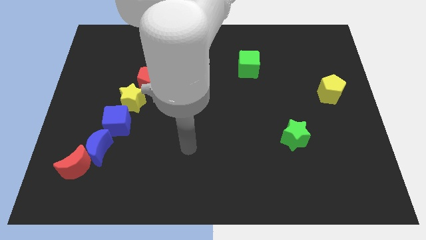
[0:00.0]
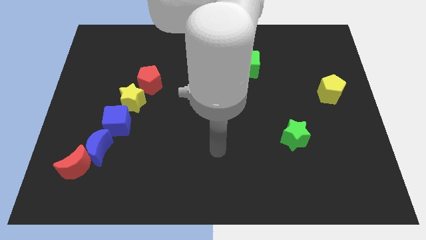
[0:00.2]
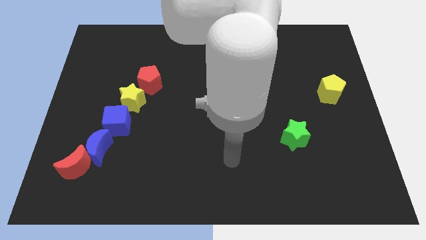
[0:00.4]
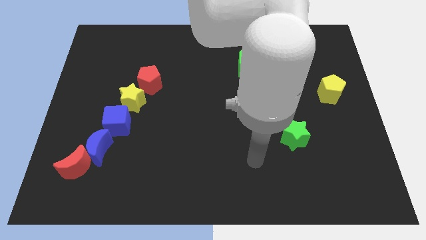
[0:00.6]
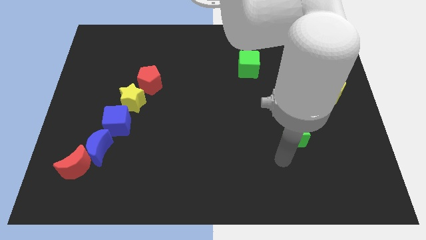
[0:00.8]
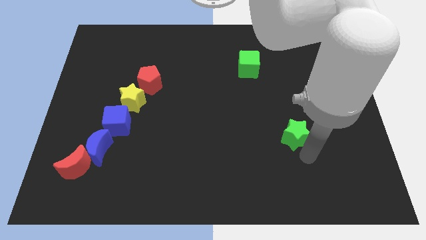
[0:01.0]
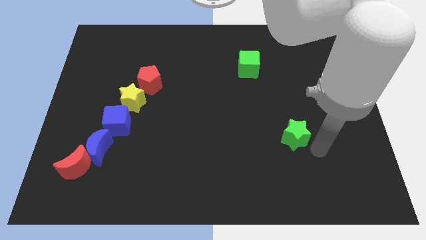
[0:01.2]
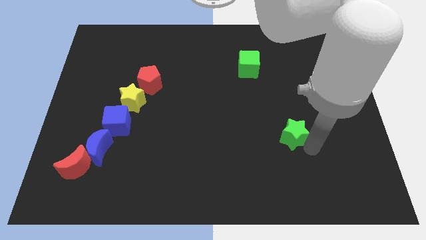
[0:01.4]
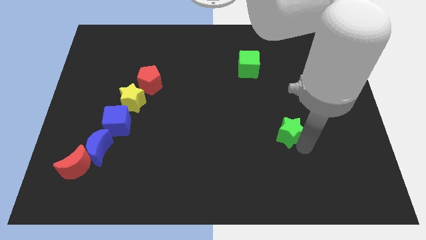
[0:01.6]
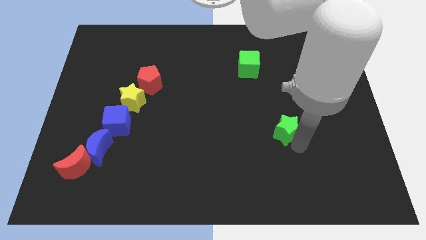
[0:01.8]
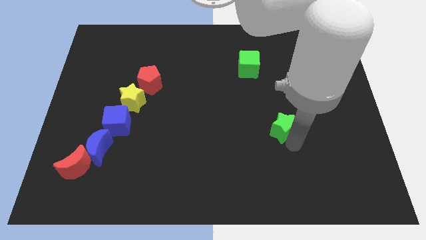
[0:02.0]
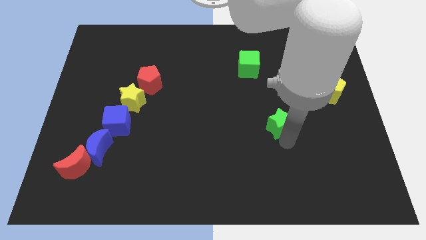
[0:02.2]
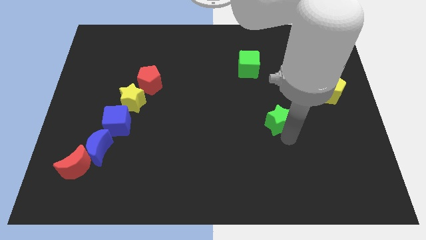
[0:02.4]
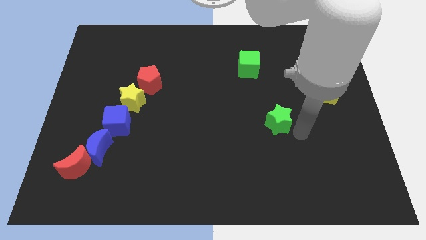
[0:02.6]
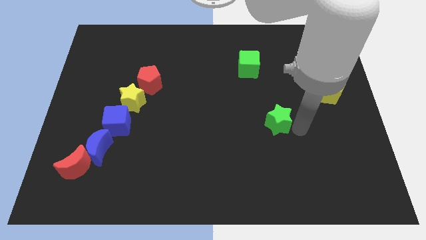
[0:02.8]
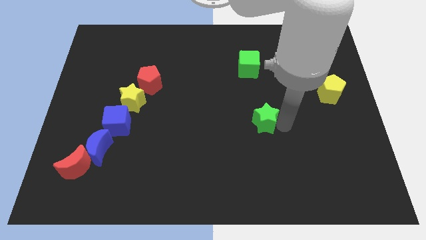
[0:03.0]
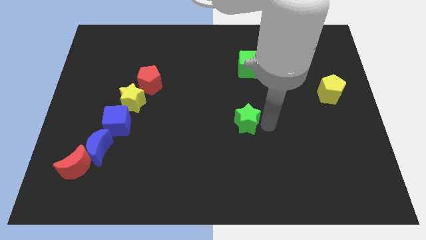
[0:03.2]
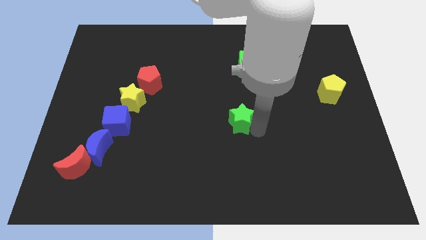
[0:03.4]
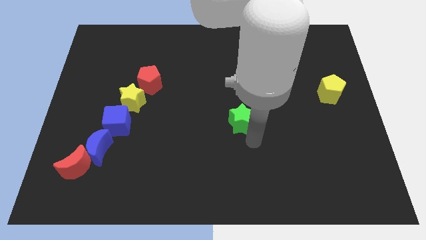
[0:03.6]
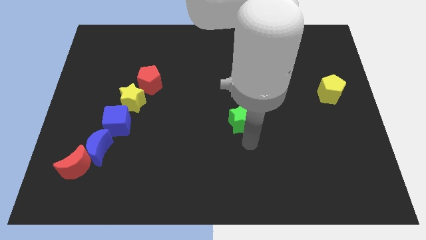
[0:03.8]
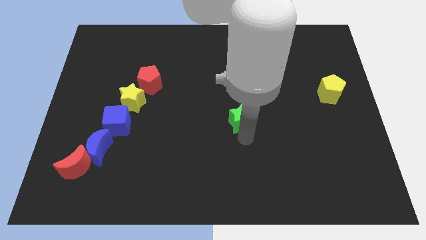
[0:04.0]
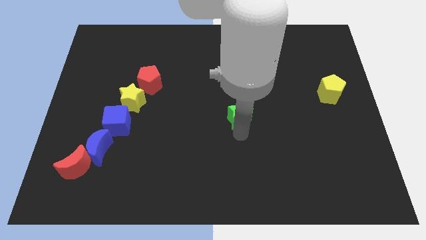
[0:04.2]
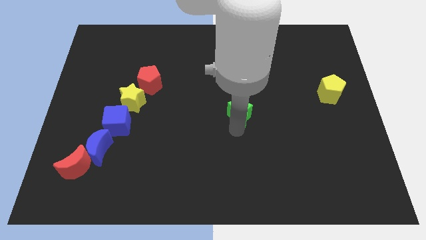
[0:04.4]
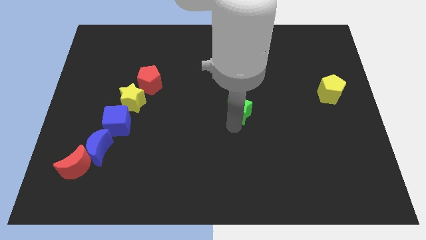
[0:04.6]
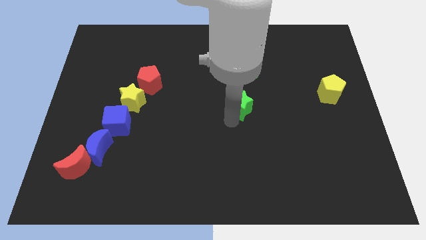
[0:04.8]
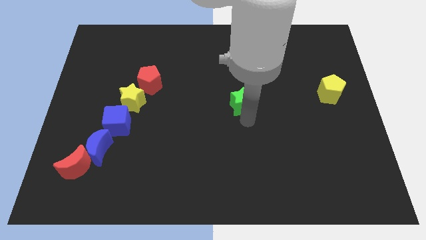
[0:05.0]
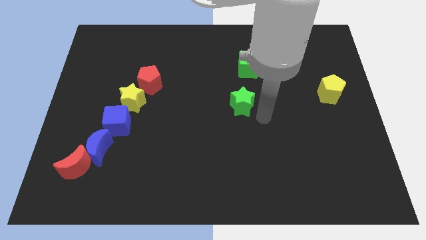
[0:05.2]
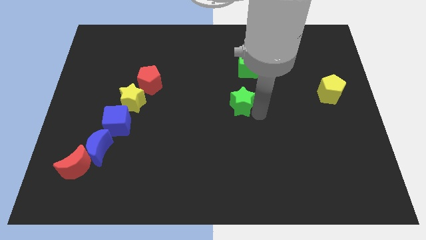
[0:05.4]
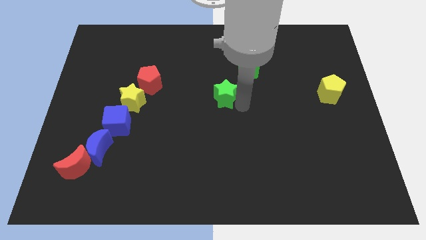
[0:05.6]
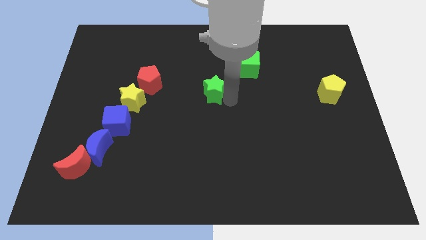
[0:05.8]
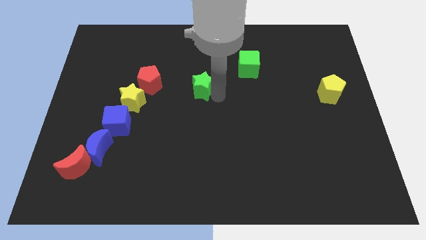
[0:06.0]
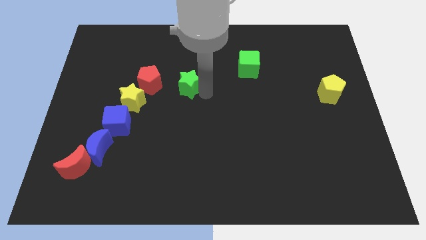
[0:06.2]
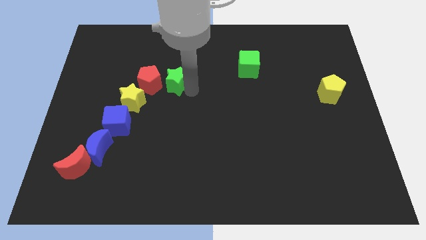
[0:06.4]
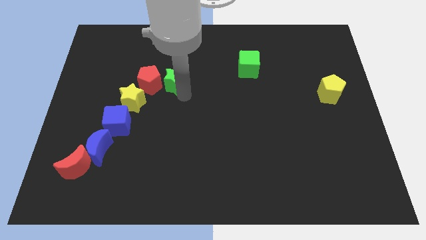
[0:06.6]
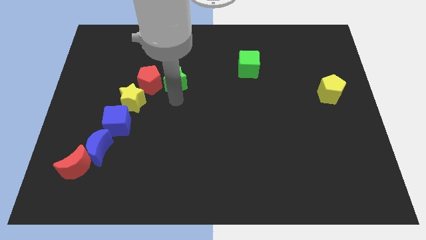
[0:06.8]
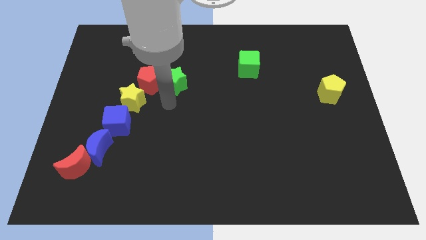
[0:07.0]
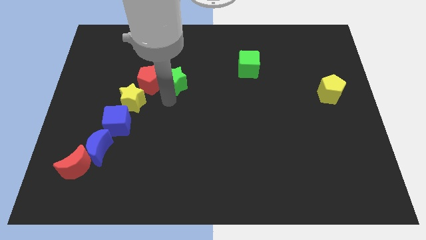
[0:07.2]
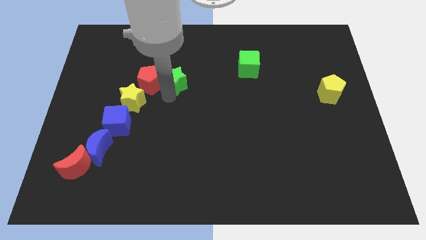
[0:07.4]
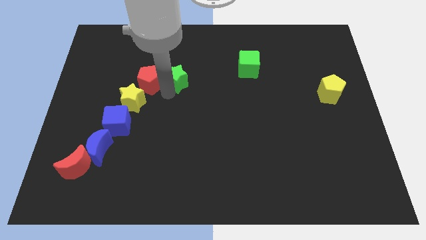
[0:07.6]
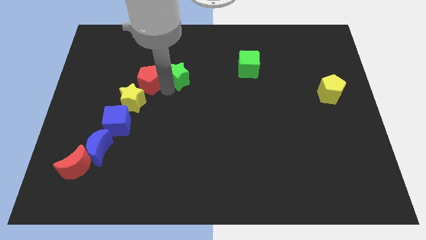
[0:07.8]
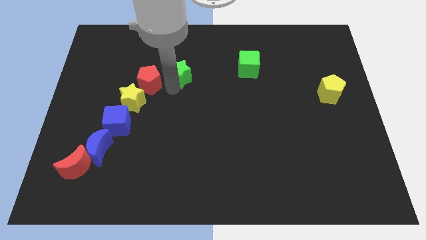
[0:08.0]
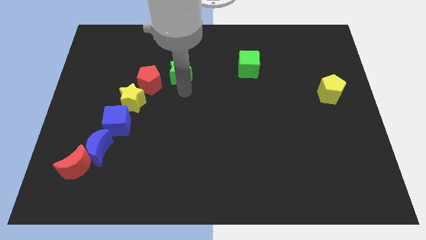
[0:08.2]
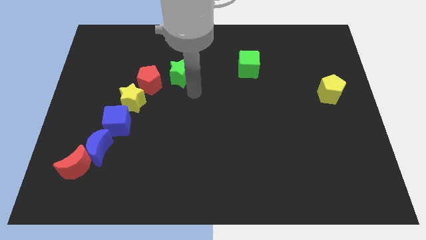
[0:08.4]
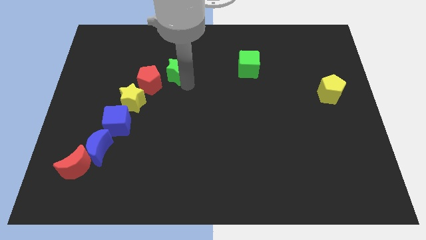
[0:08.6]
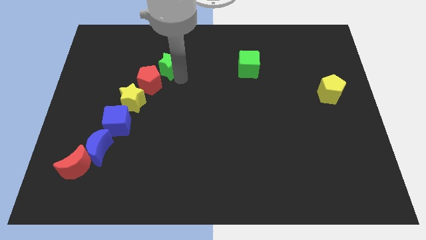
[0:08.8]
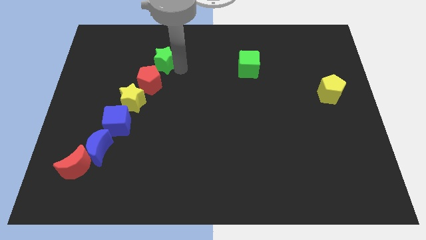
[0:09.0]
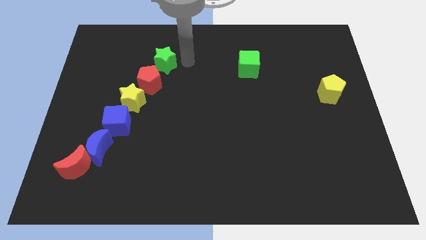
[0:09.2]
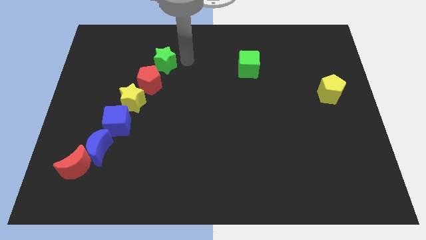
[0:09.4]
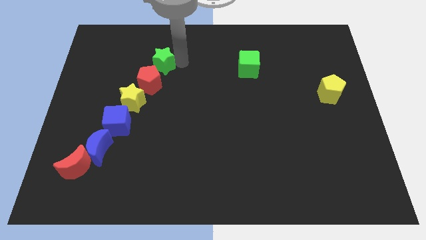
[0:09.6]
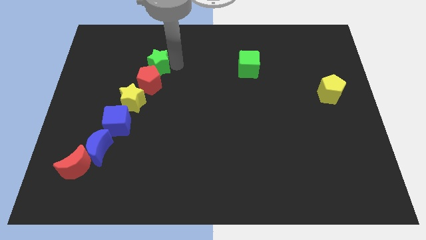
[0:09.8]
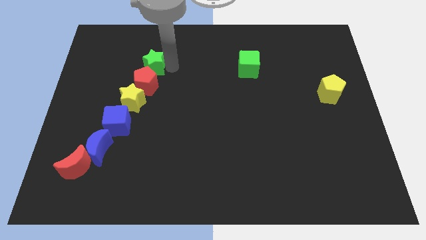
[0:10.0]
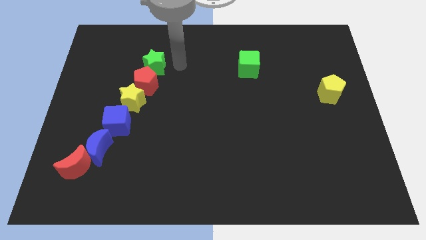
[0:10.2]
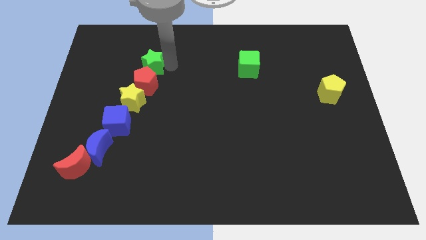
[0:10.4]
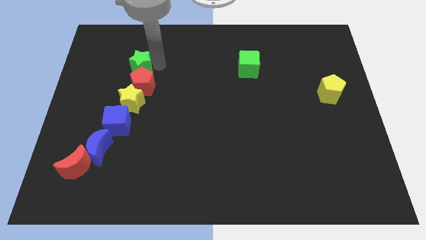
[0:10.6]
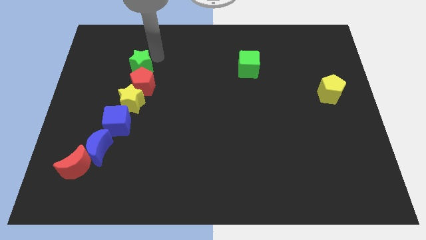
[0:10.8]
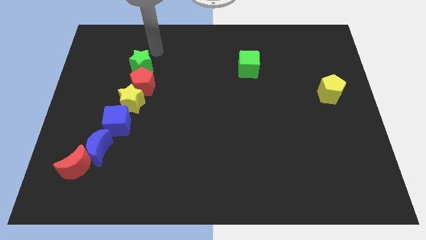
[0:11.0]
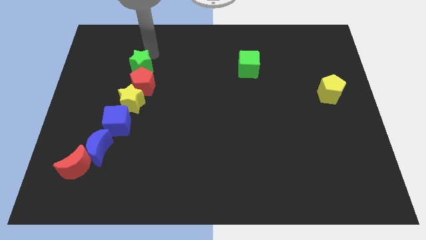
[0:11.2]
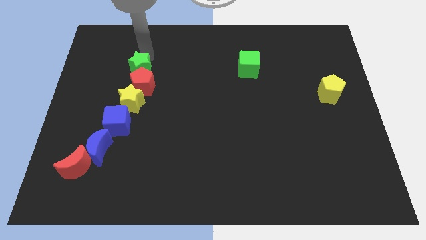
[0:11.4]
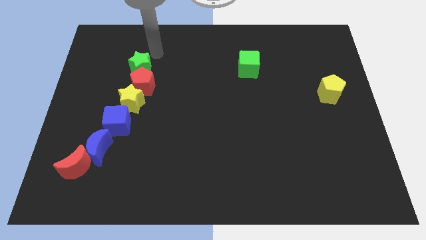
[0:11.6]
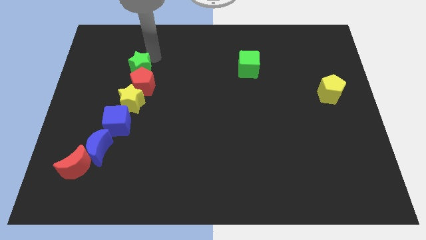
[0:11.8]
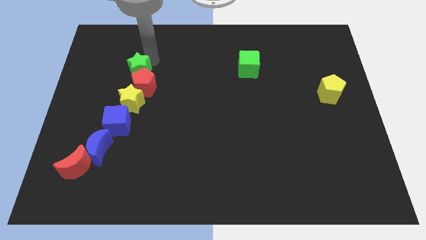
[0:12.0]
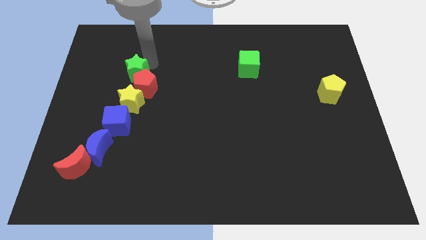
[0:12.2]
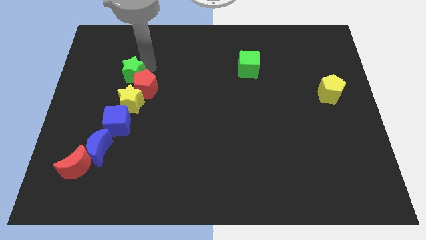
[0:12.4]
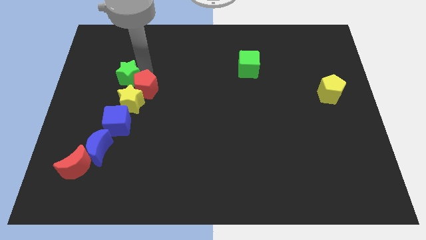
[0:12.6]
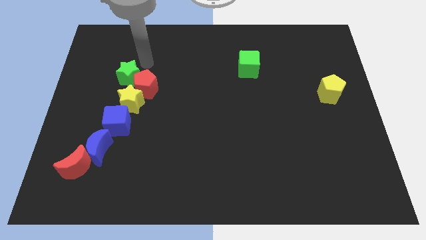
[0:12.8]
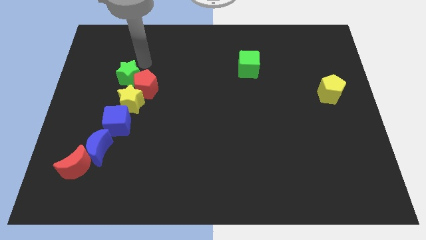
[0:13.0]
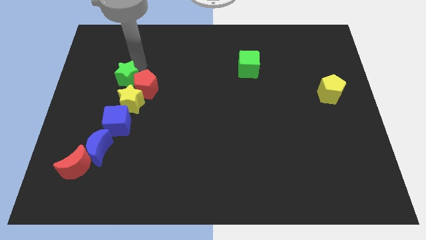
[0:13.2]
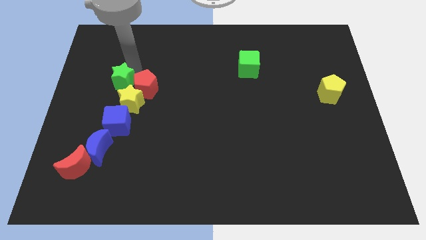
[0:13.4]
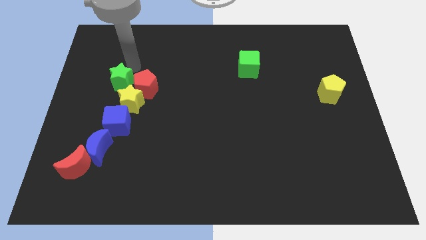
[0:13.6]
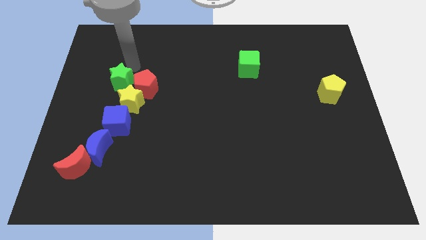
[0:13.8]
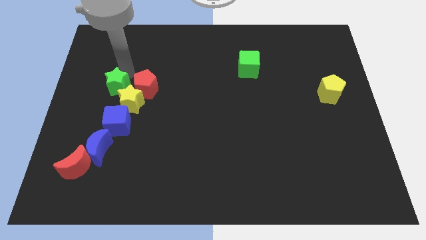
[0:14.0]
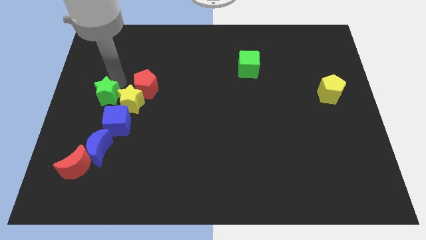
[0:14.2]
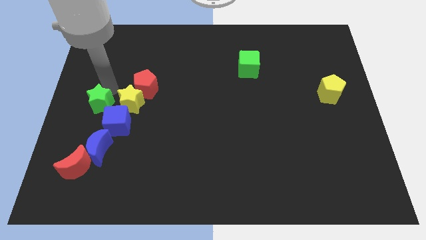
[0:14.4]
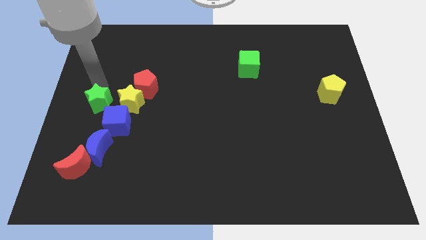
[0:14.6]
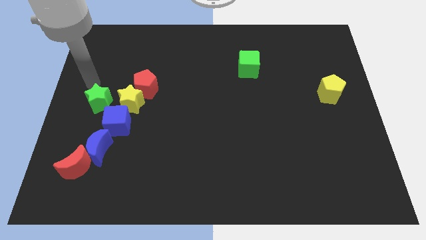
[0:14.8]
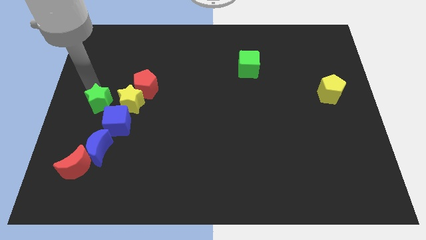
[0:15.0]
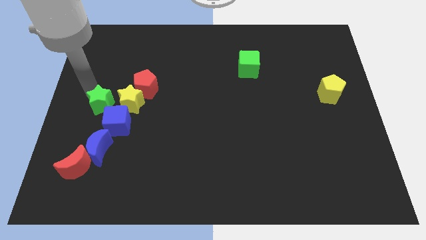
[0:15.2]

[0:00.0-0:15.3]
slide the green star diagonally down and to the left of the yellow star
